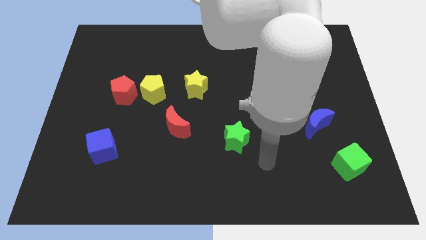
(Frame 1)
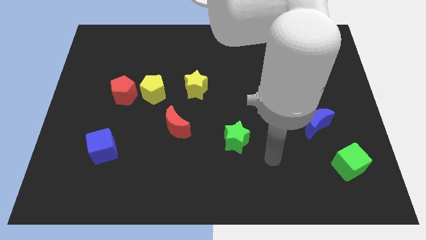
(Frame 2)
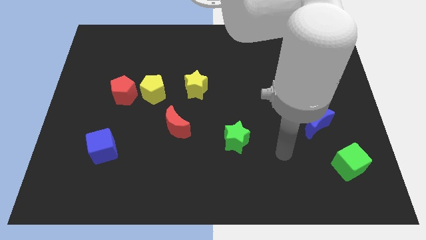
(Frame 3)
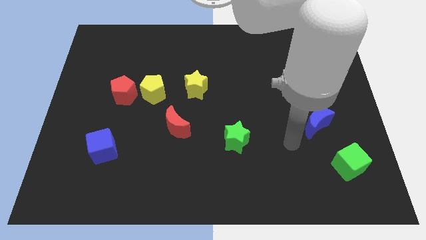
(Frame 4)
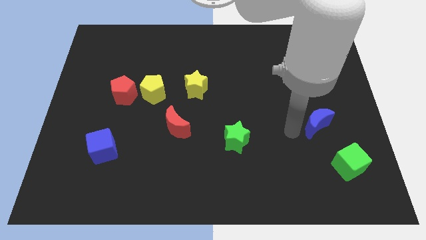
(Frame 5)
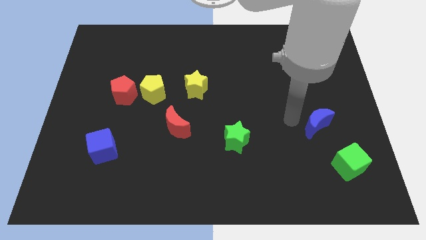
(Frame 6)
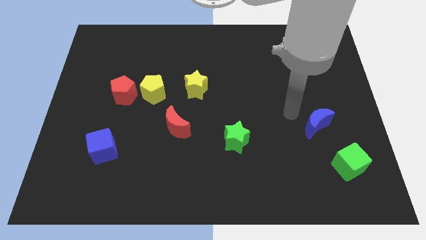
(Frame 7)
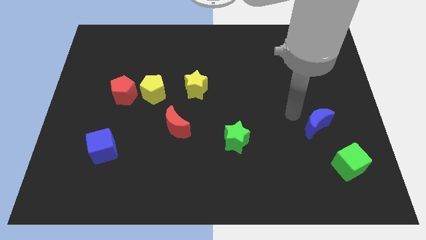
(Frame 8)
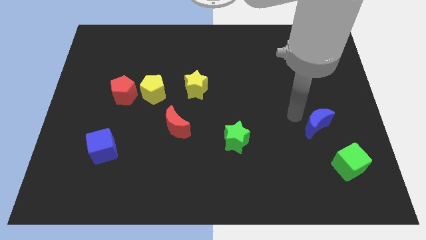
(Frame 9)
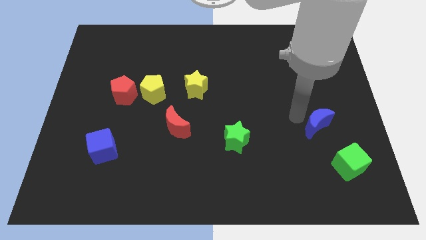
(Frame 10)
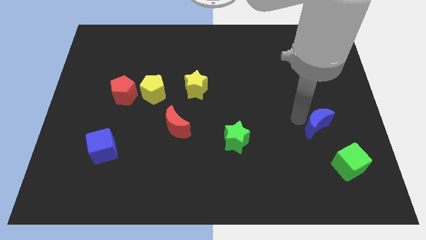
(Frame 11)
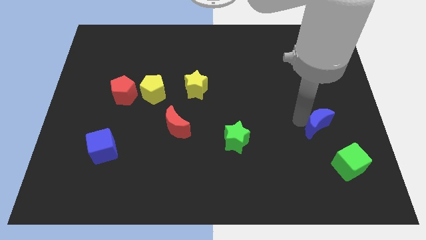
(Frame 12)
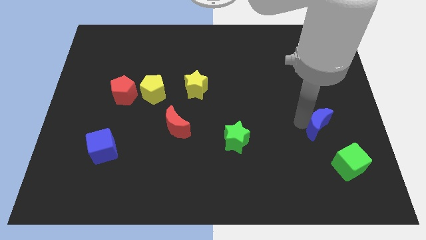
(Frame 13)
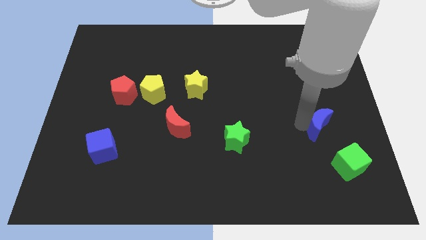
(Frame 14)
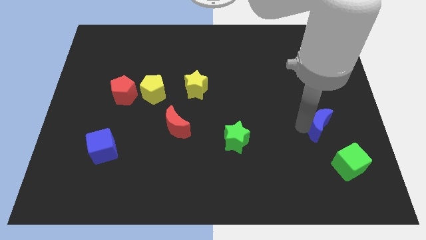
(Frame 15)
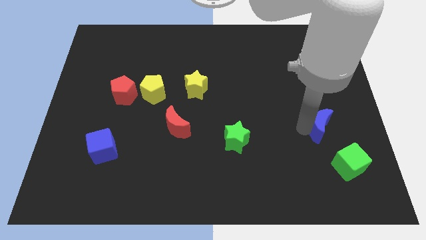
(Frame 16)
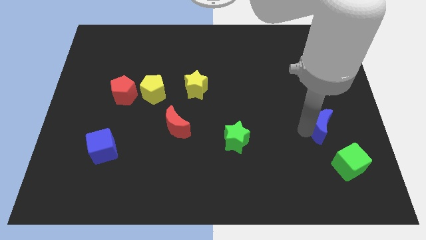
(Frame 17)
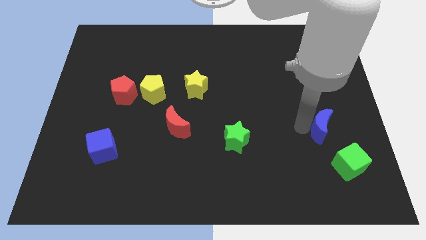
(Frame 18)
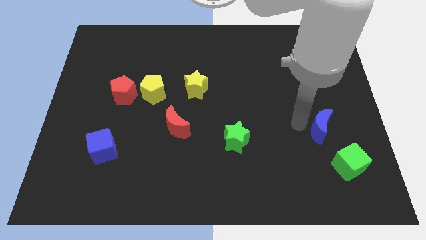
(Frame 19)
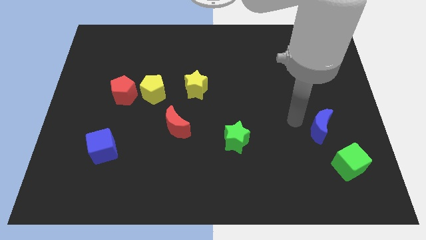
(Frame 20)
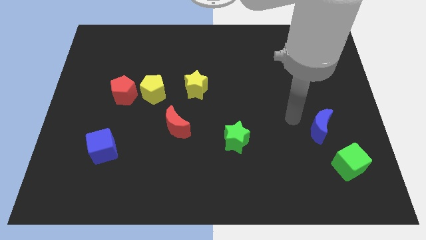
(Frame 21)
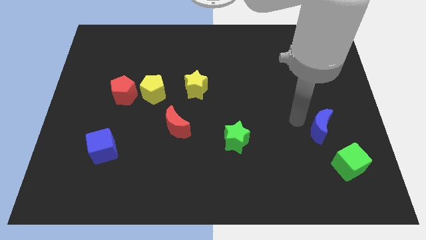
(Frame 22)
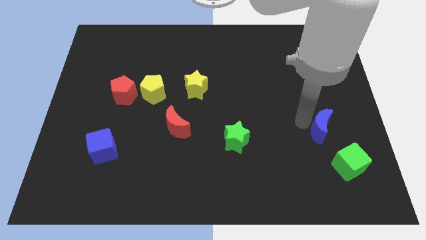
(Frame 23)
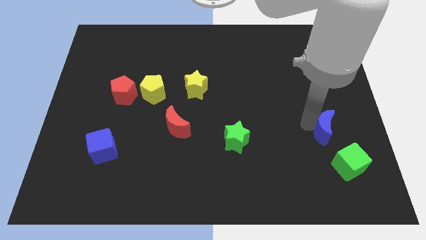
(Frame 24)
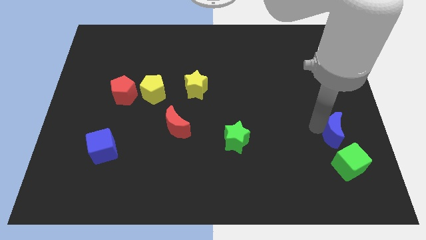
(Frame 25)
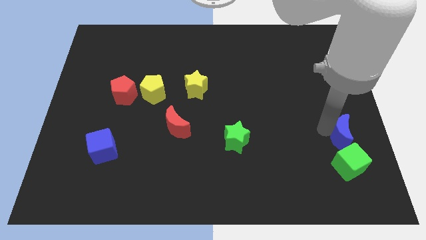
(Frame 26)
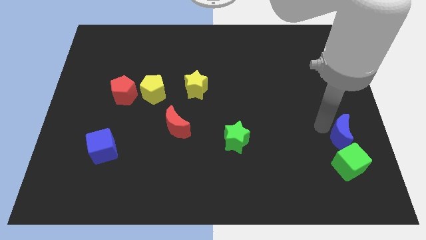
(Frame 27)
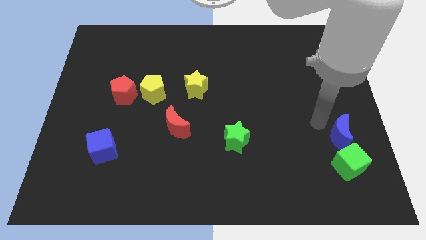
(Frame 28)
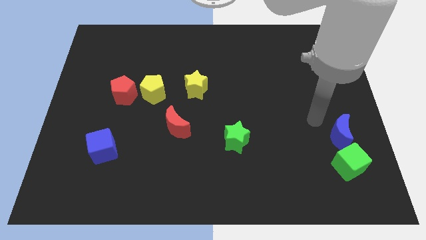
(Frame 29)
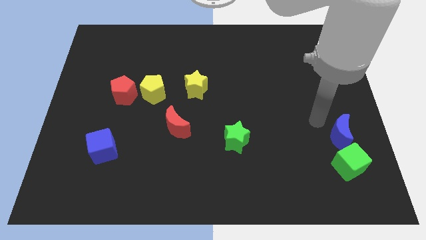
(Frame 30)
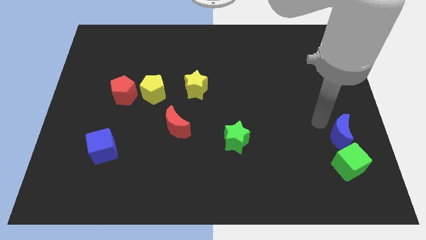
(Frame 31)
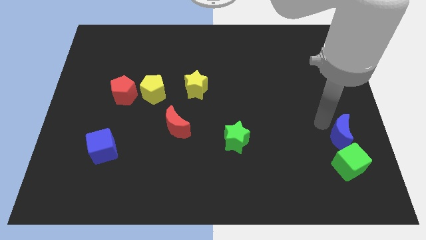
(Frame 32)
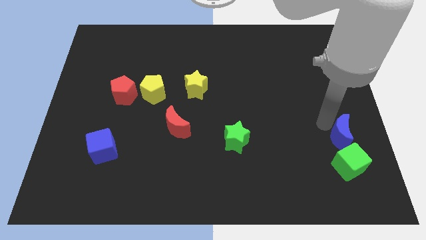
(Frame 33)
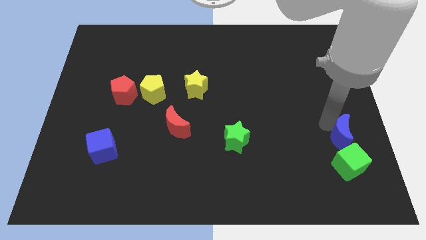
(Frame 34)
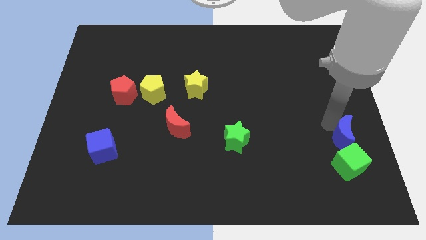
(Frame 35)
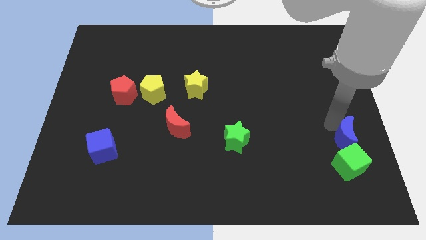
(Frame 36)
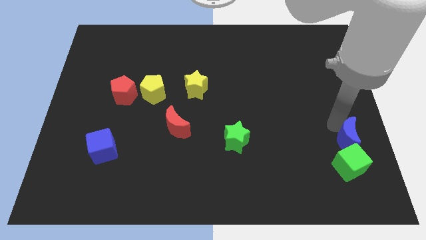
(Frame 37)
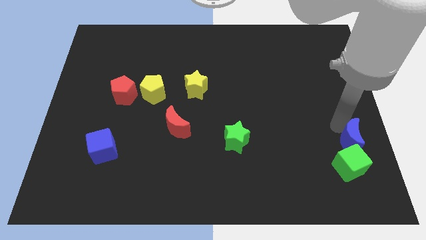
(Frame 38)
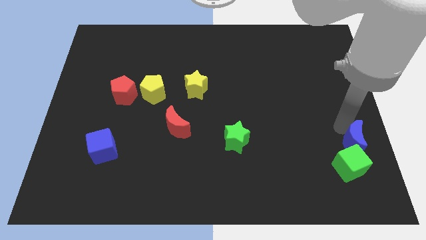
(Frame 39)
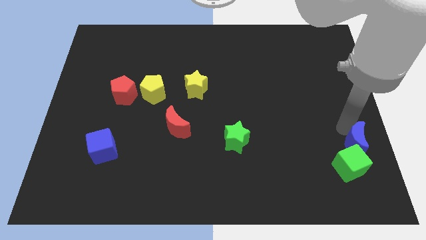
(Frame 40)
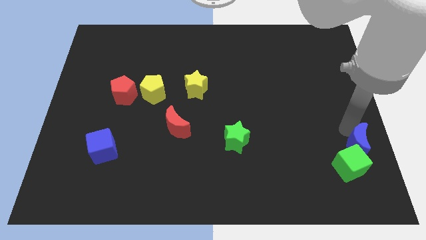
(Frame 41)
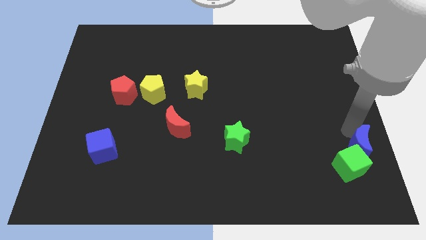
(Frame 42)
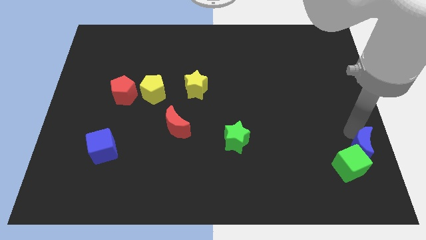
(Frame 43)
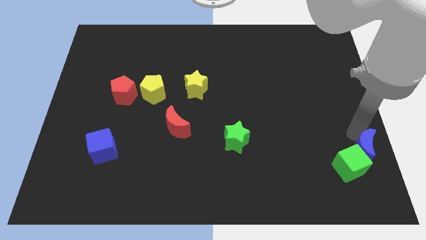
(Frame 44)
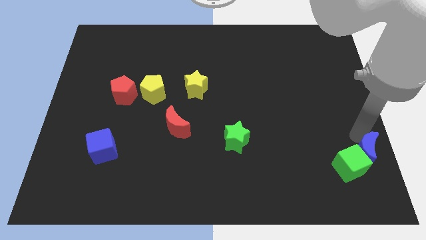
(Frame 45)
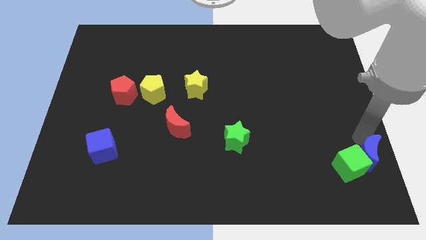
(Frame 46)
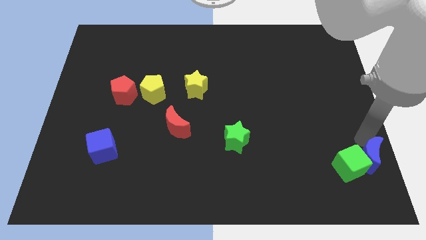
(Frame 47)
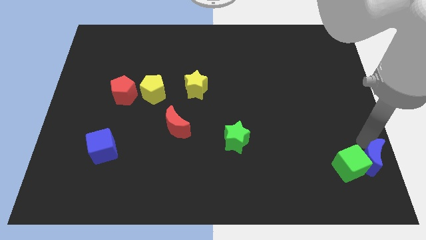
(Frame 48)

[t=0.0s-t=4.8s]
move the blue moon to the bottom right

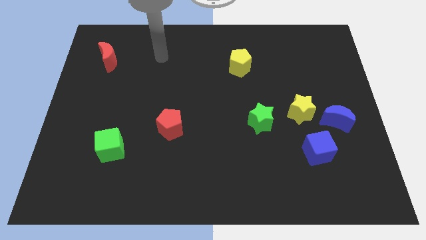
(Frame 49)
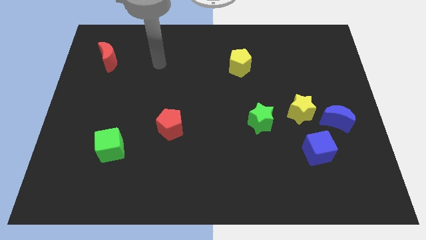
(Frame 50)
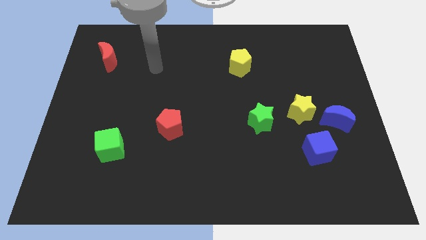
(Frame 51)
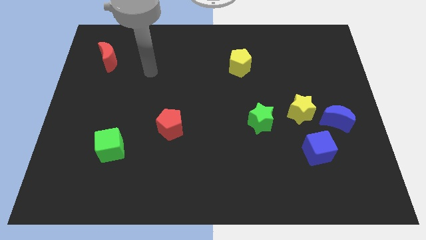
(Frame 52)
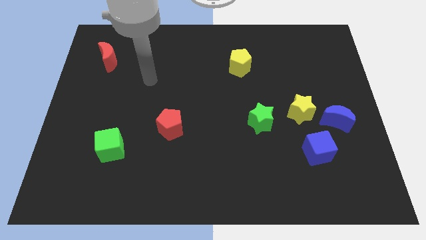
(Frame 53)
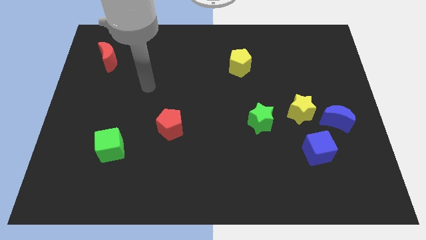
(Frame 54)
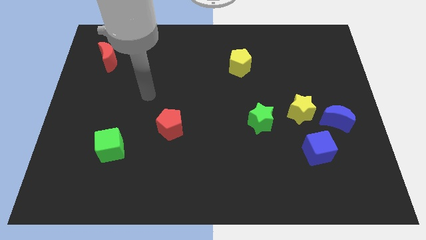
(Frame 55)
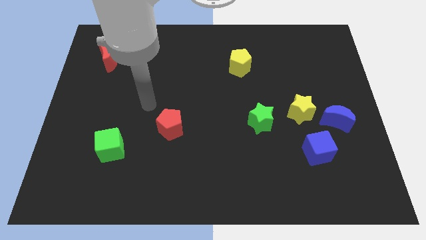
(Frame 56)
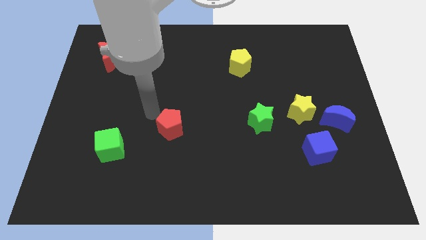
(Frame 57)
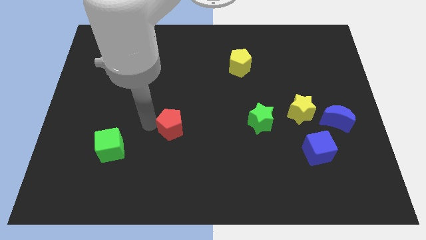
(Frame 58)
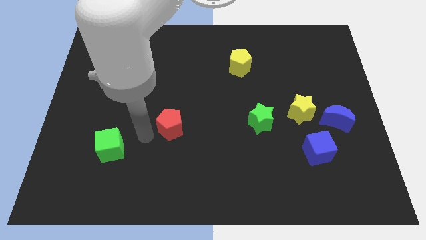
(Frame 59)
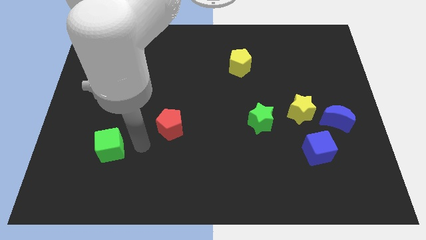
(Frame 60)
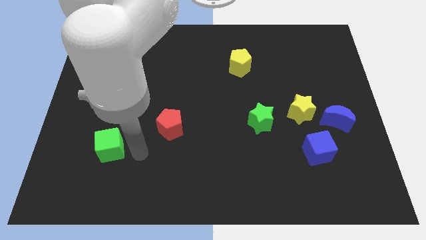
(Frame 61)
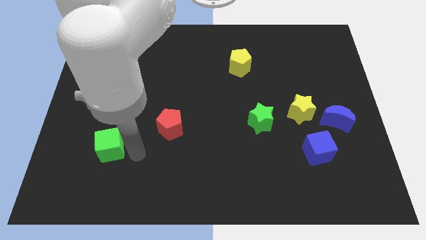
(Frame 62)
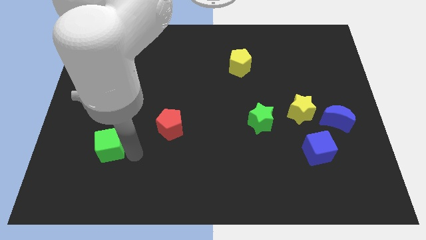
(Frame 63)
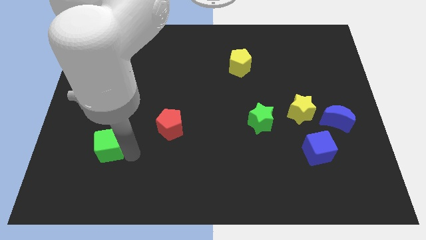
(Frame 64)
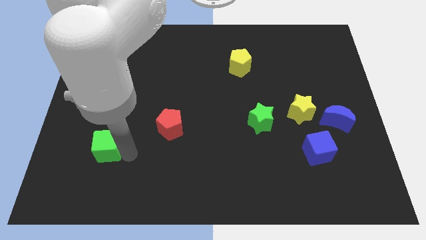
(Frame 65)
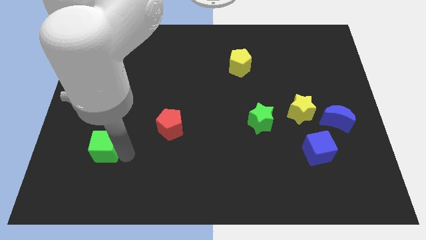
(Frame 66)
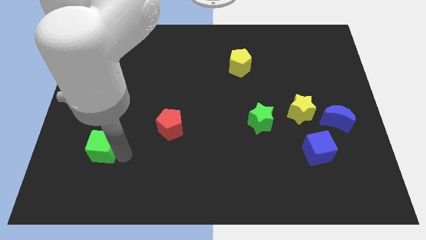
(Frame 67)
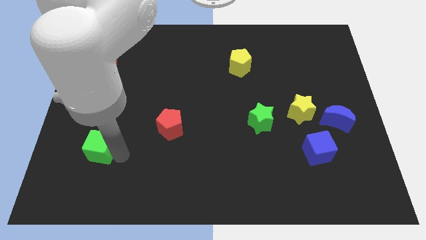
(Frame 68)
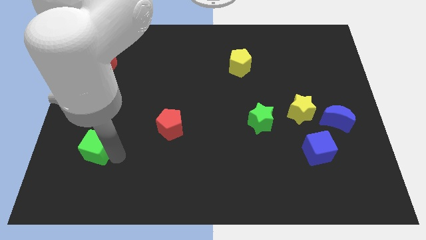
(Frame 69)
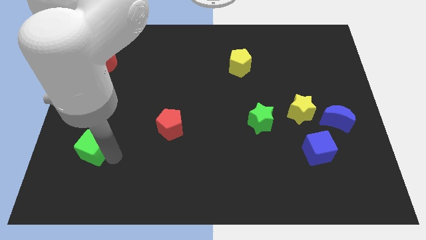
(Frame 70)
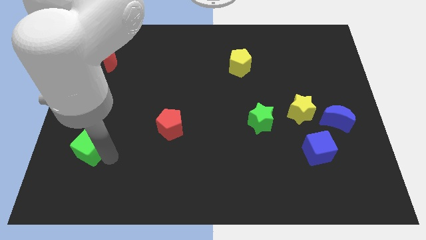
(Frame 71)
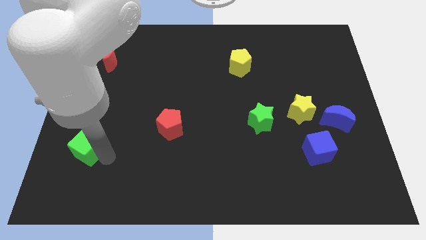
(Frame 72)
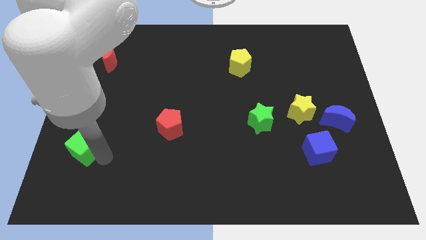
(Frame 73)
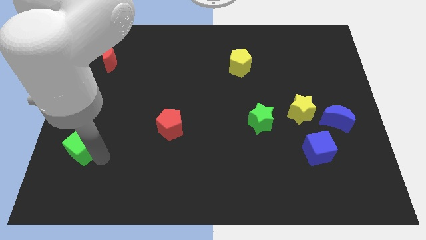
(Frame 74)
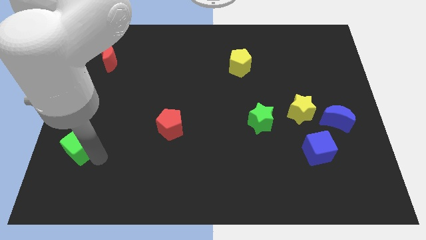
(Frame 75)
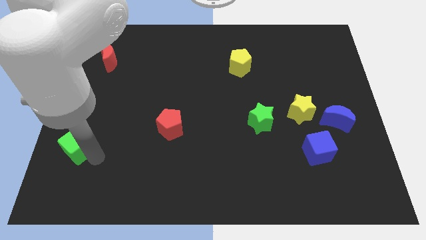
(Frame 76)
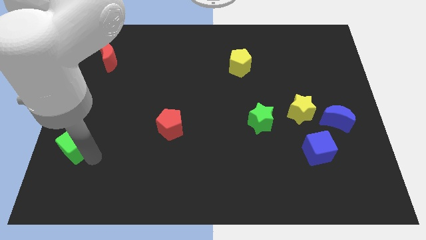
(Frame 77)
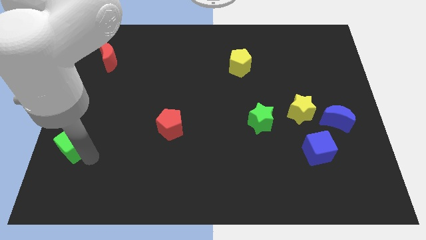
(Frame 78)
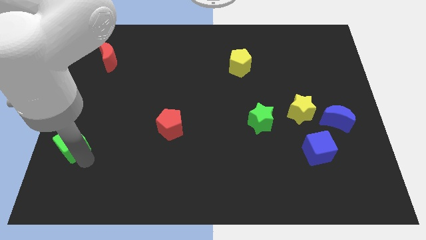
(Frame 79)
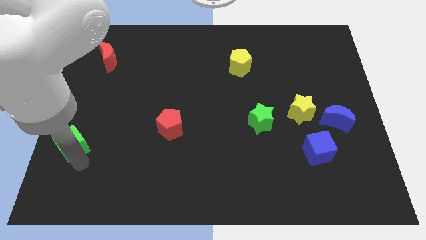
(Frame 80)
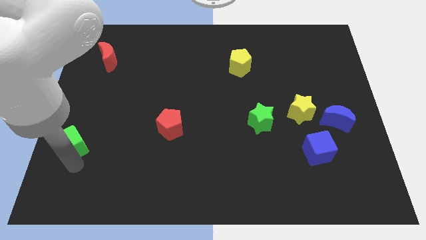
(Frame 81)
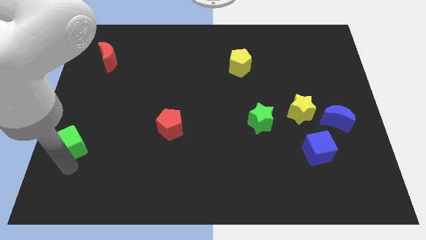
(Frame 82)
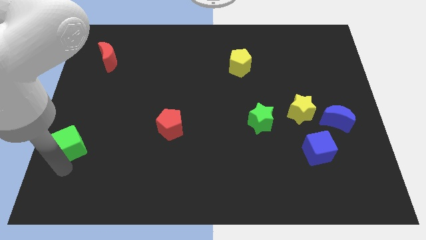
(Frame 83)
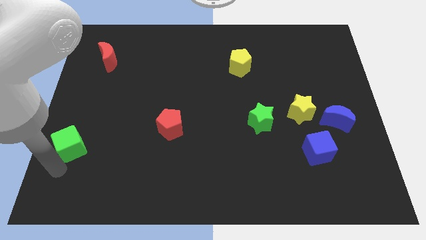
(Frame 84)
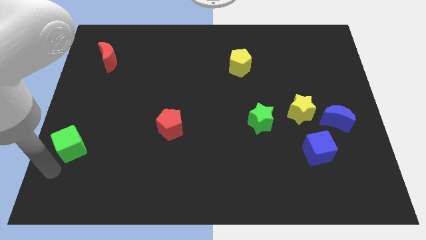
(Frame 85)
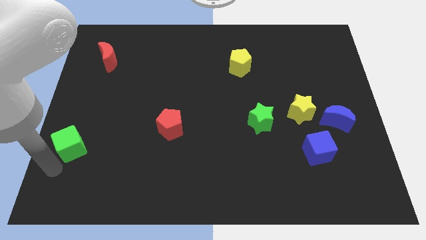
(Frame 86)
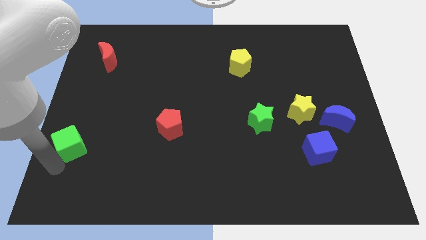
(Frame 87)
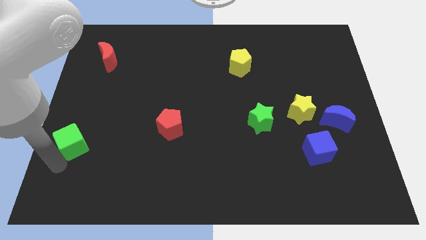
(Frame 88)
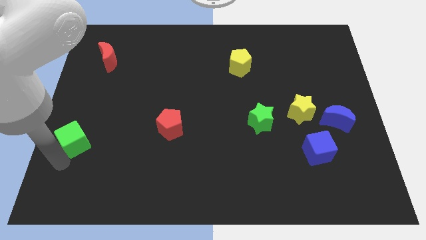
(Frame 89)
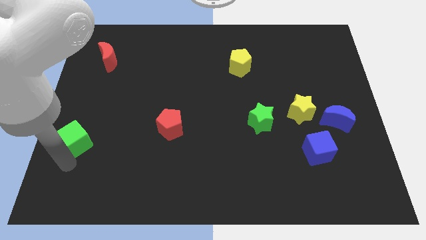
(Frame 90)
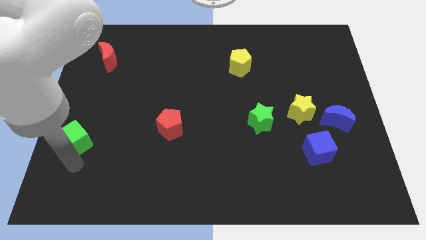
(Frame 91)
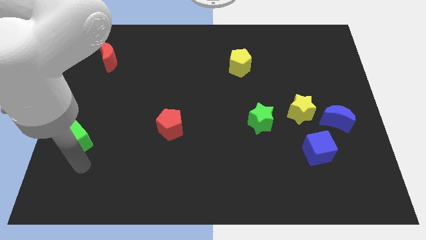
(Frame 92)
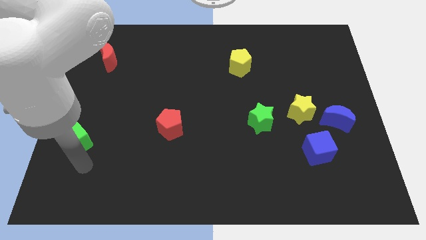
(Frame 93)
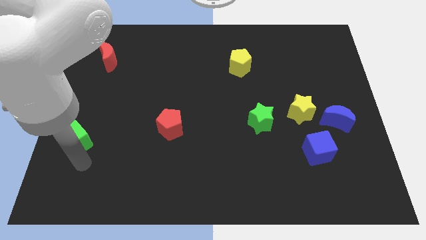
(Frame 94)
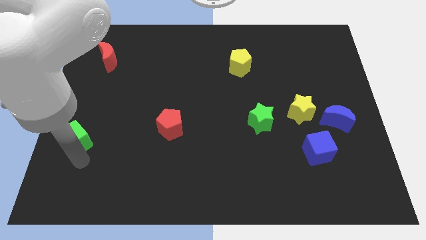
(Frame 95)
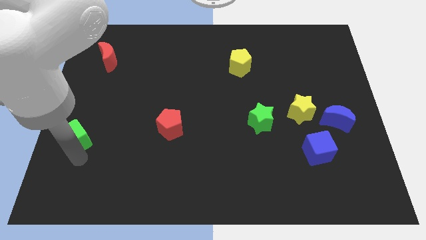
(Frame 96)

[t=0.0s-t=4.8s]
put the green cube to the left side
